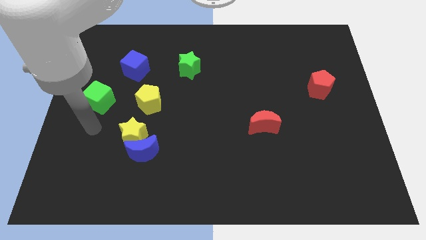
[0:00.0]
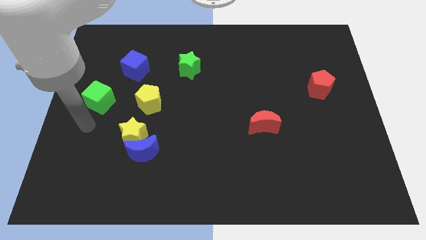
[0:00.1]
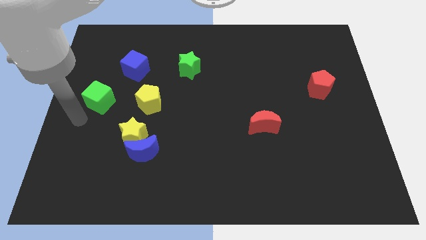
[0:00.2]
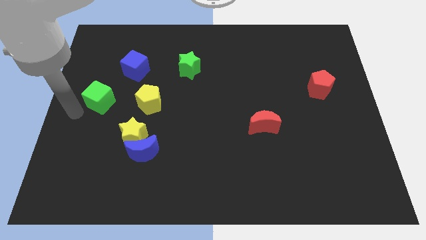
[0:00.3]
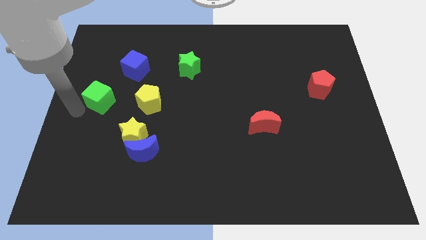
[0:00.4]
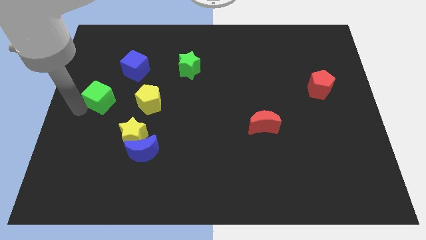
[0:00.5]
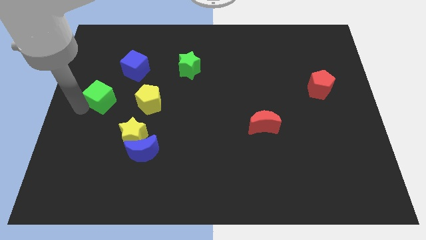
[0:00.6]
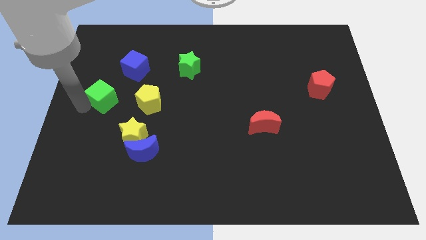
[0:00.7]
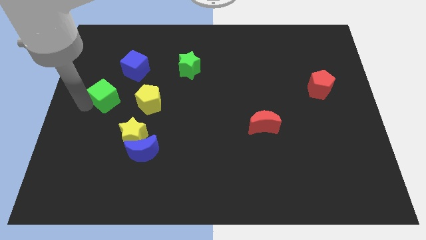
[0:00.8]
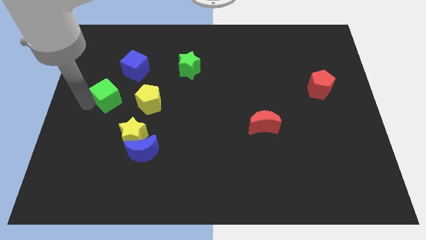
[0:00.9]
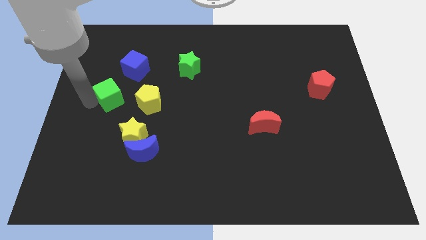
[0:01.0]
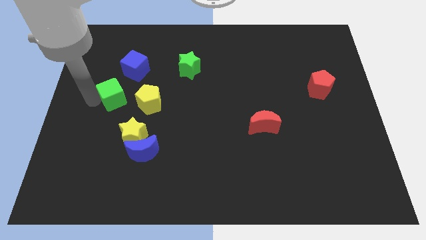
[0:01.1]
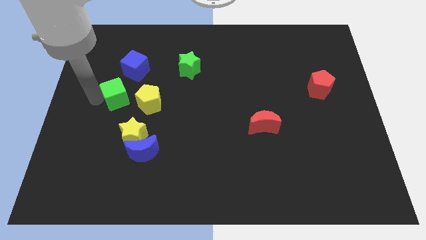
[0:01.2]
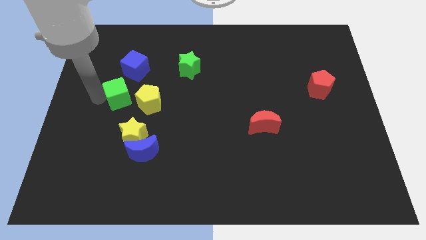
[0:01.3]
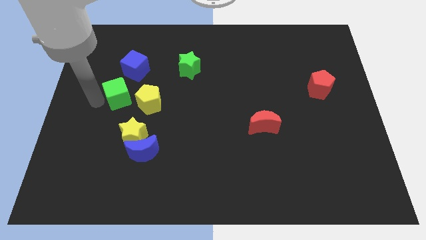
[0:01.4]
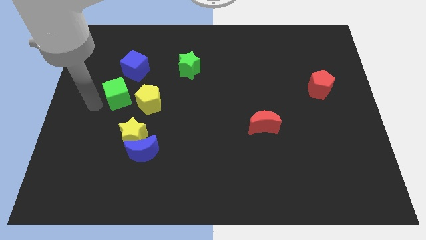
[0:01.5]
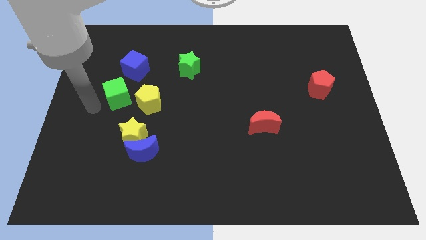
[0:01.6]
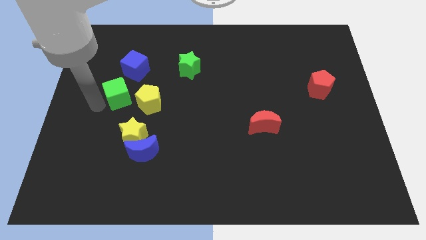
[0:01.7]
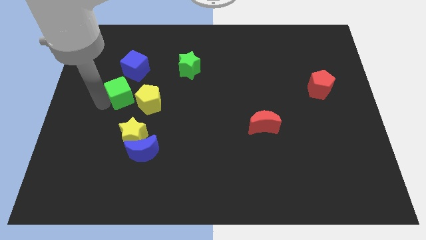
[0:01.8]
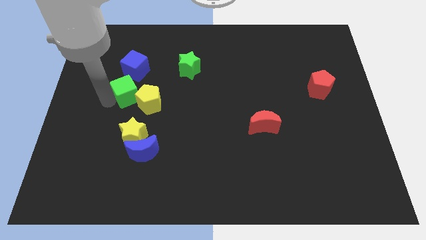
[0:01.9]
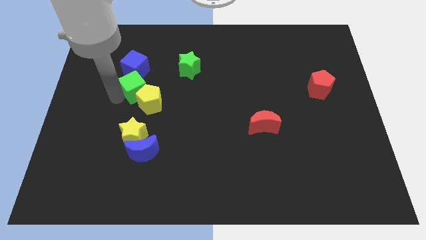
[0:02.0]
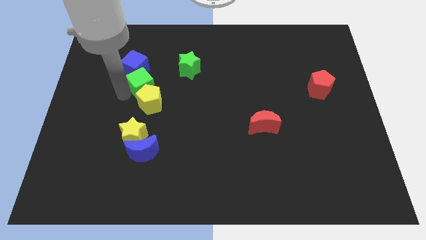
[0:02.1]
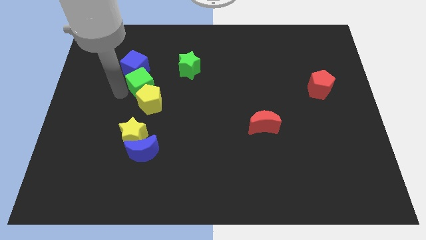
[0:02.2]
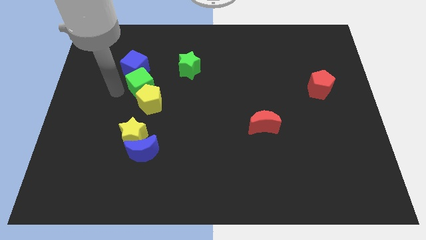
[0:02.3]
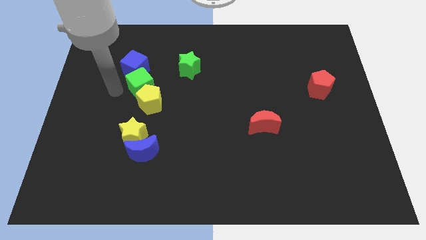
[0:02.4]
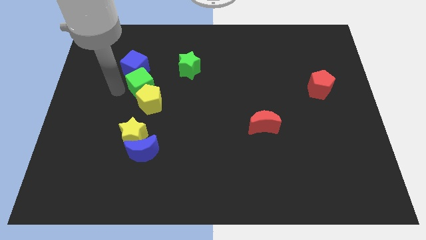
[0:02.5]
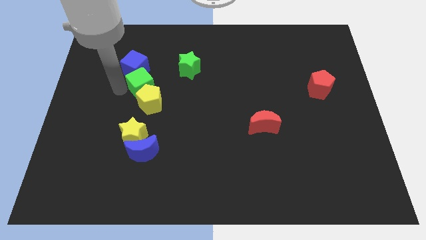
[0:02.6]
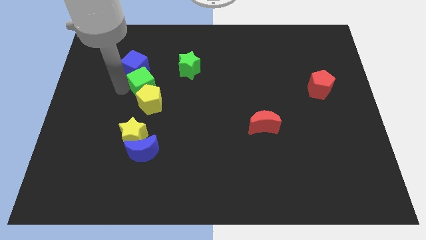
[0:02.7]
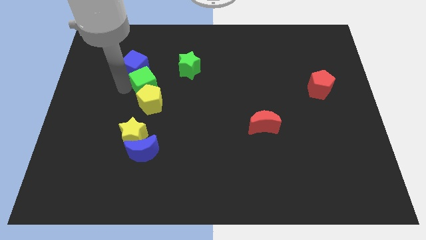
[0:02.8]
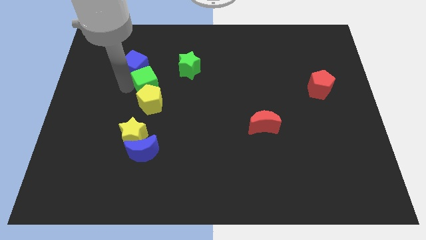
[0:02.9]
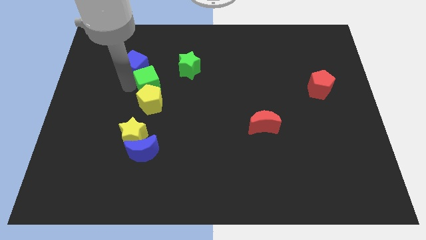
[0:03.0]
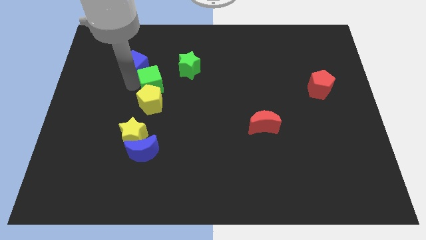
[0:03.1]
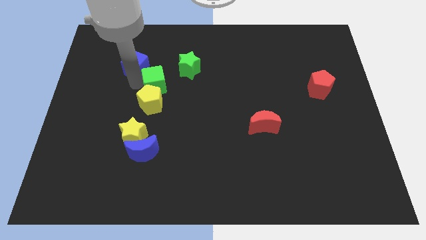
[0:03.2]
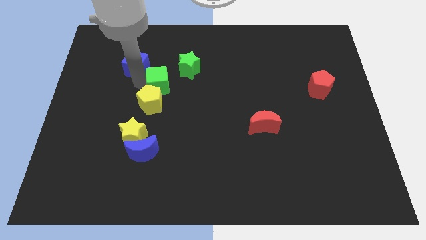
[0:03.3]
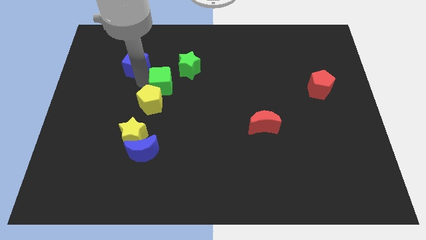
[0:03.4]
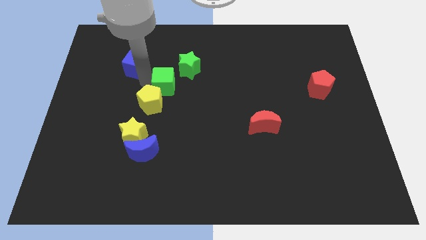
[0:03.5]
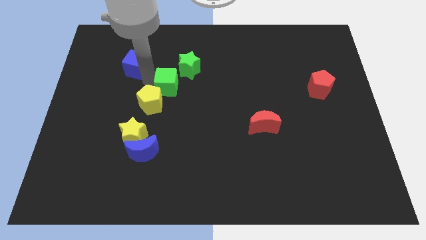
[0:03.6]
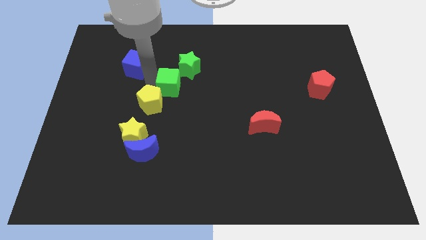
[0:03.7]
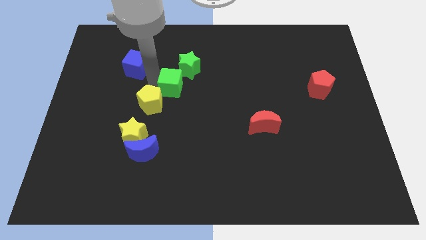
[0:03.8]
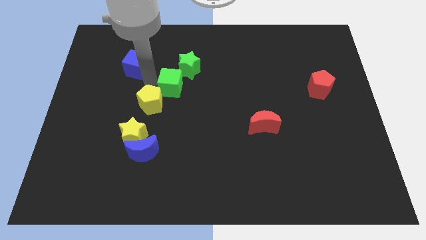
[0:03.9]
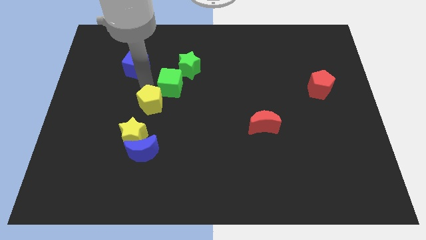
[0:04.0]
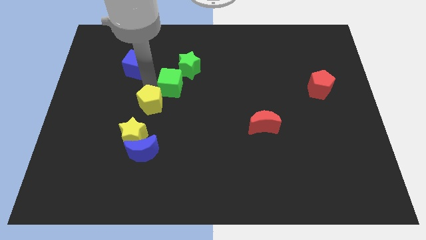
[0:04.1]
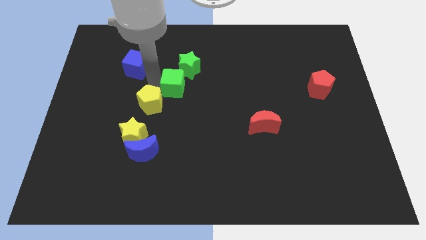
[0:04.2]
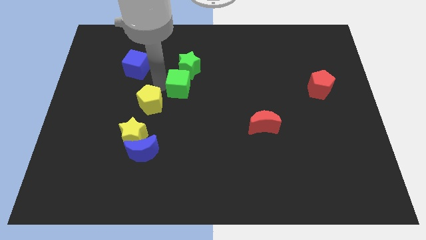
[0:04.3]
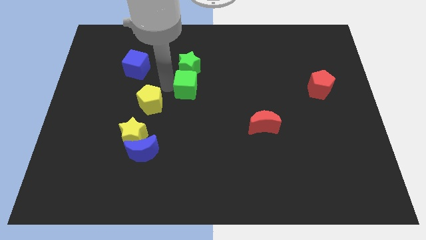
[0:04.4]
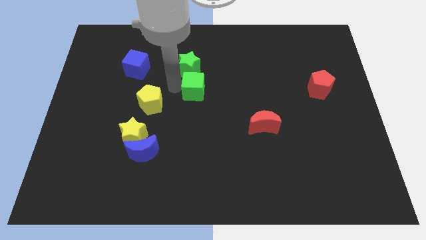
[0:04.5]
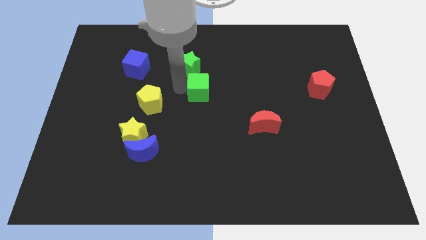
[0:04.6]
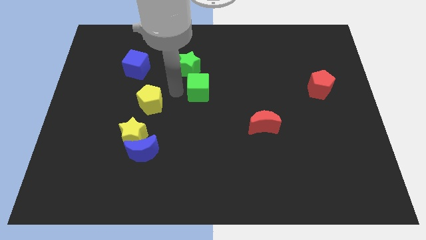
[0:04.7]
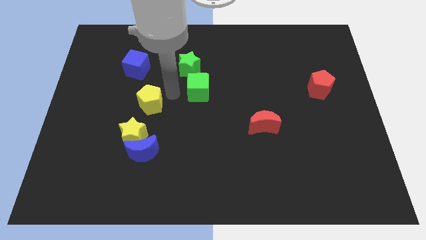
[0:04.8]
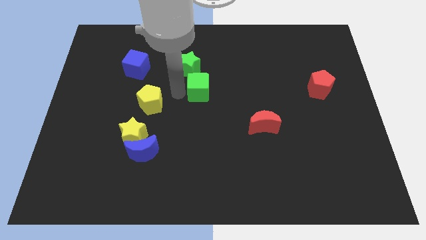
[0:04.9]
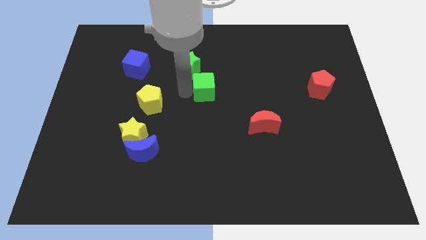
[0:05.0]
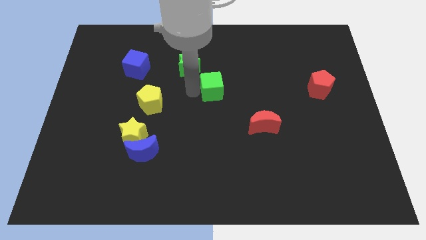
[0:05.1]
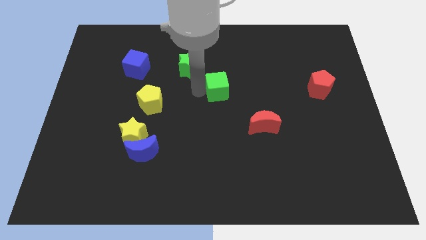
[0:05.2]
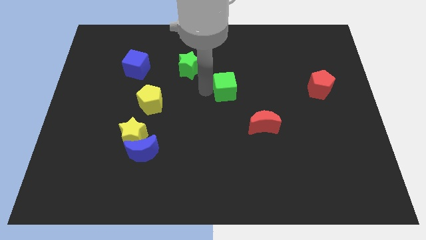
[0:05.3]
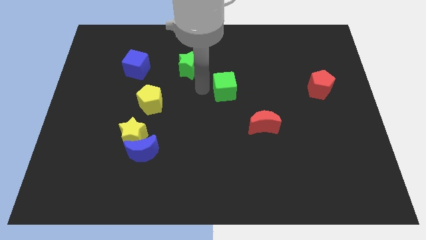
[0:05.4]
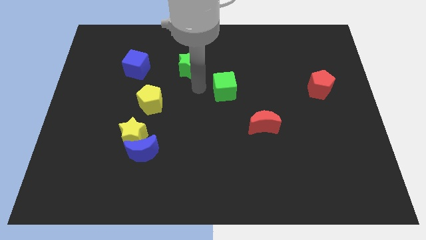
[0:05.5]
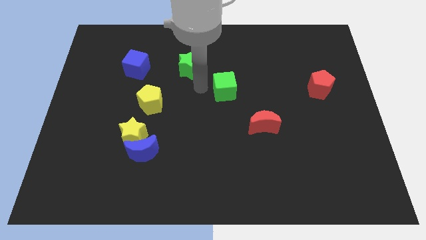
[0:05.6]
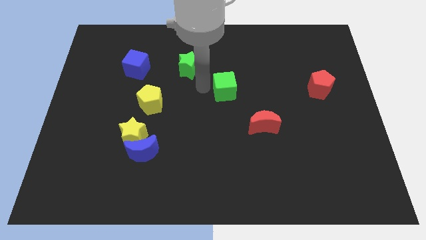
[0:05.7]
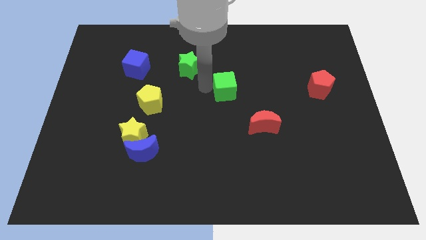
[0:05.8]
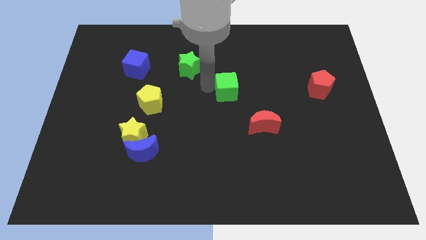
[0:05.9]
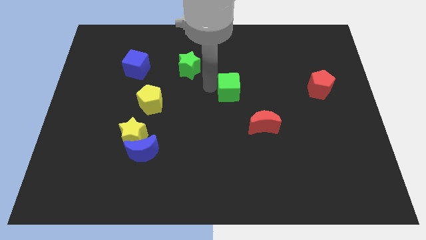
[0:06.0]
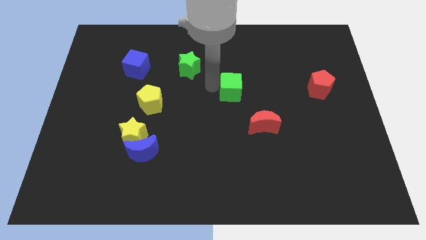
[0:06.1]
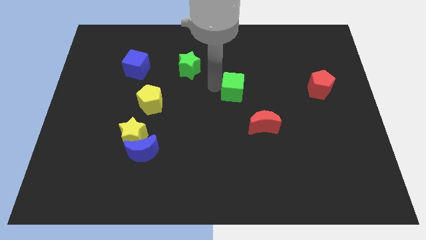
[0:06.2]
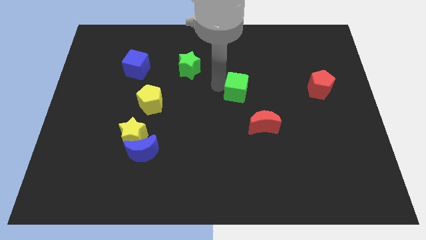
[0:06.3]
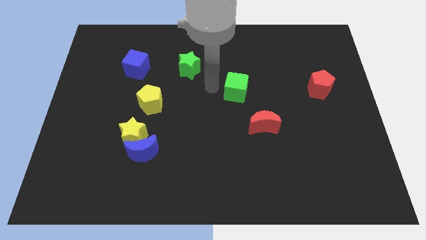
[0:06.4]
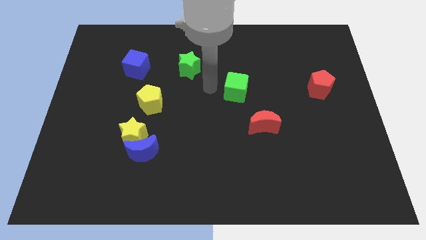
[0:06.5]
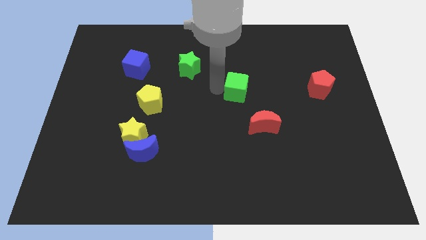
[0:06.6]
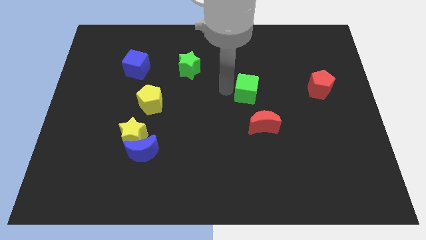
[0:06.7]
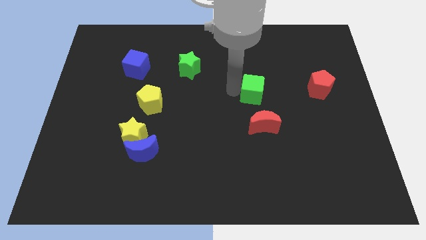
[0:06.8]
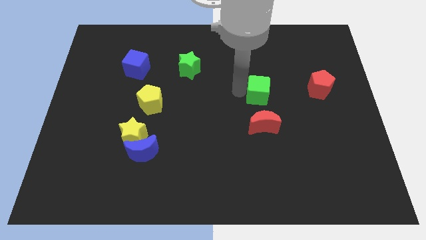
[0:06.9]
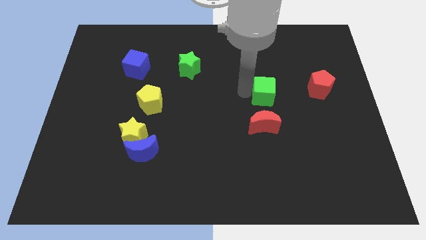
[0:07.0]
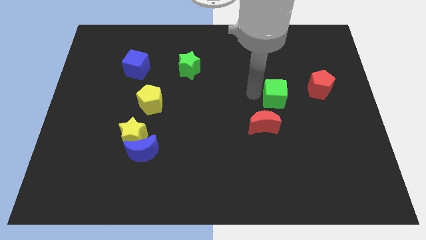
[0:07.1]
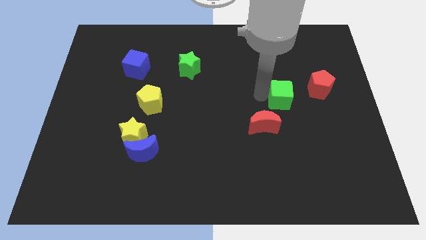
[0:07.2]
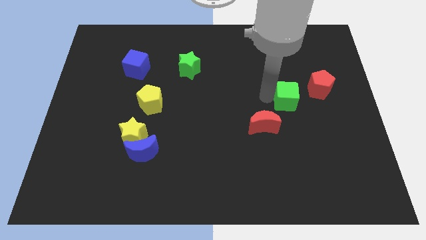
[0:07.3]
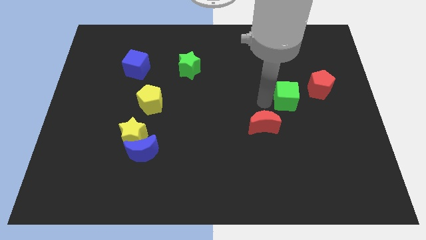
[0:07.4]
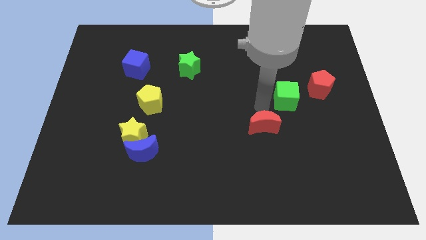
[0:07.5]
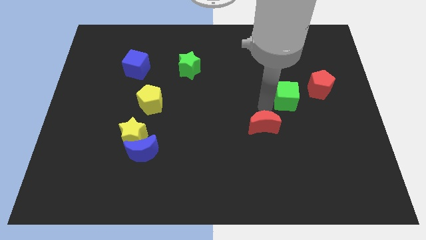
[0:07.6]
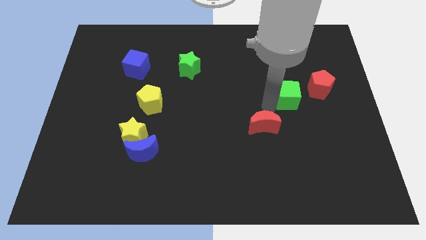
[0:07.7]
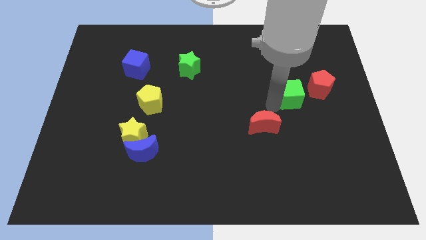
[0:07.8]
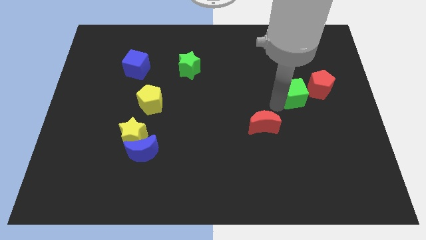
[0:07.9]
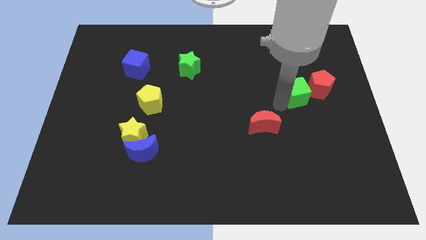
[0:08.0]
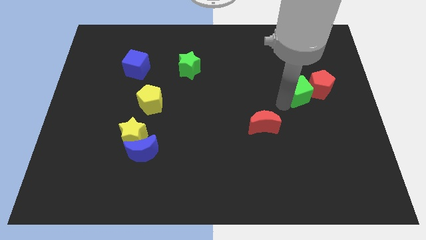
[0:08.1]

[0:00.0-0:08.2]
push the green cube next to the red pentagon
